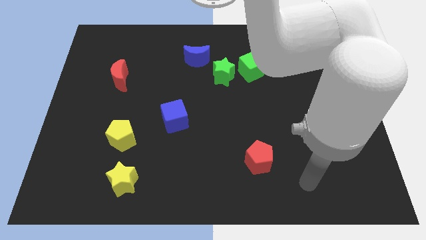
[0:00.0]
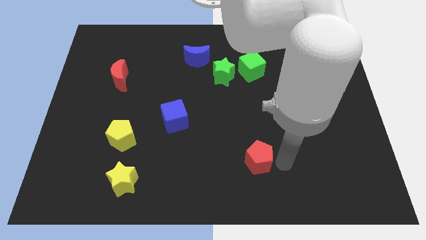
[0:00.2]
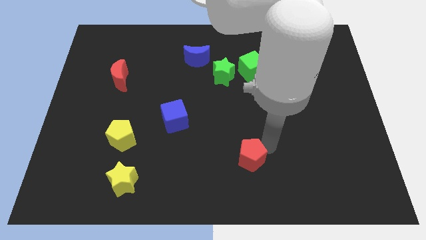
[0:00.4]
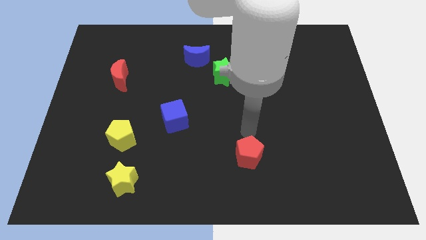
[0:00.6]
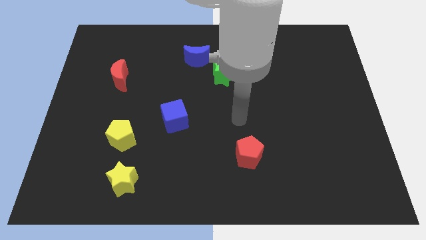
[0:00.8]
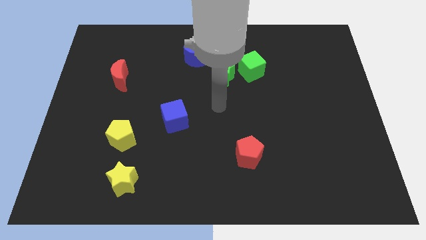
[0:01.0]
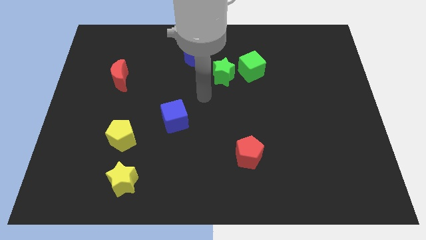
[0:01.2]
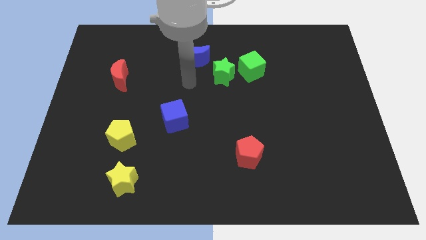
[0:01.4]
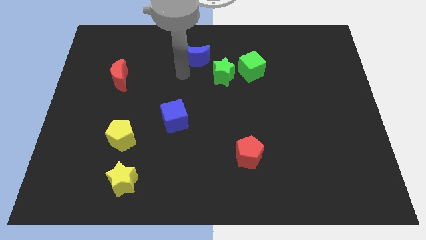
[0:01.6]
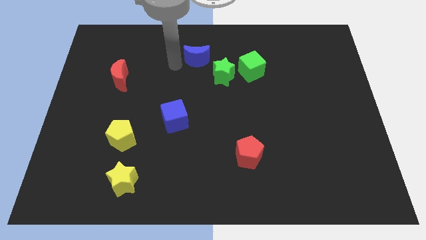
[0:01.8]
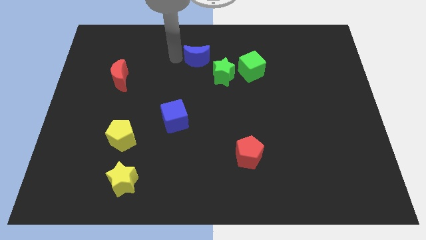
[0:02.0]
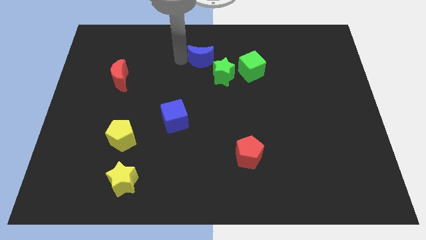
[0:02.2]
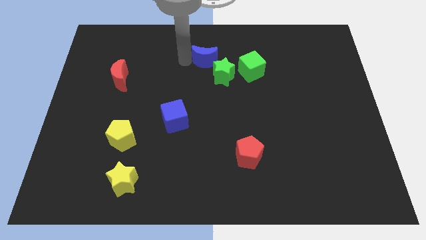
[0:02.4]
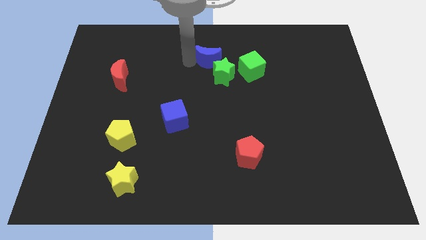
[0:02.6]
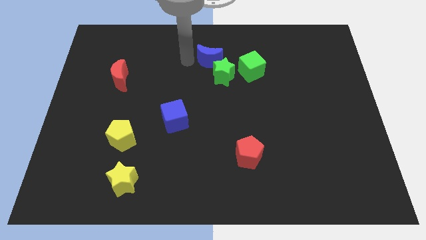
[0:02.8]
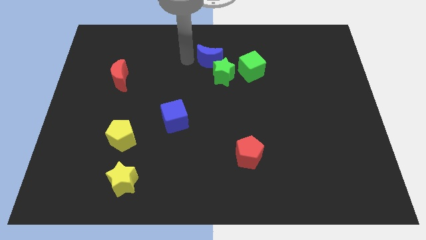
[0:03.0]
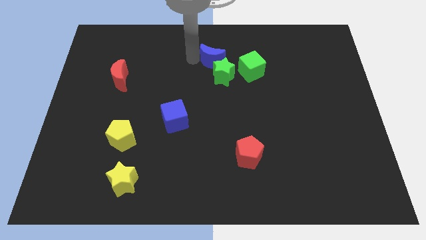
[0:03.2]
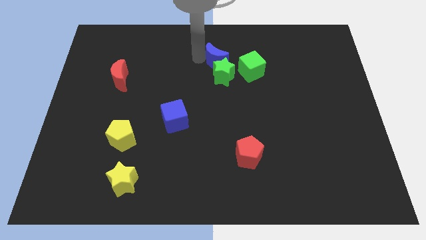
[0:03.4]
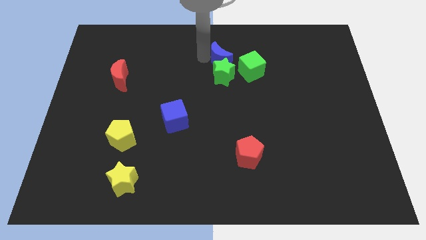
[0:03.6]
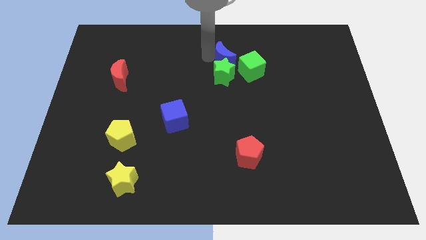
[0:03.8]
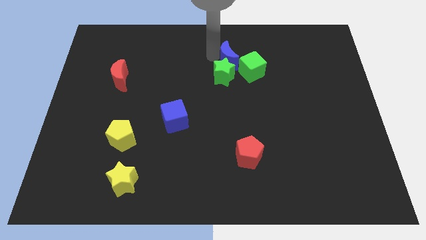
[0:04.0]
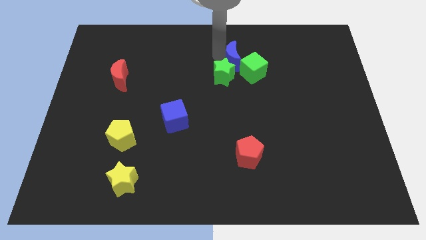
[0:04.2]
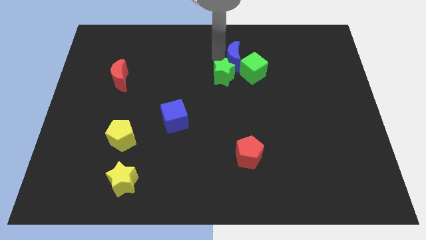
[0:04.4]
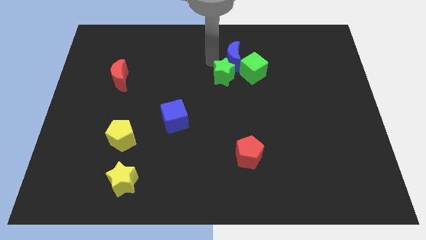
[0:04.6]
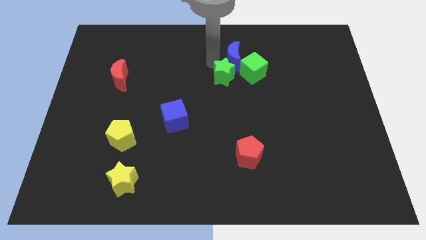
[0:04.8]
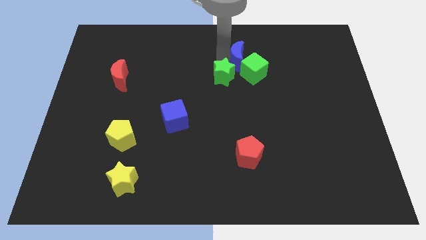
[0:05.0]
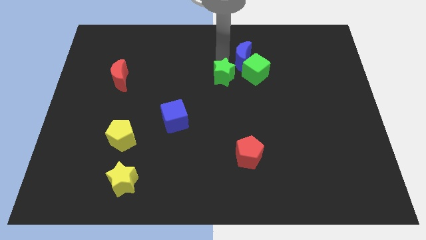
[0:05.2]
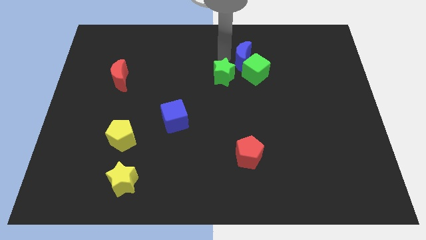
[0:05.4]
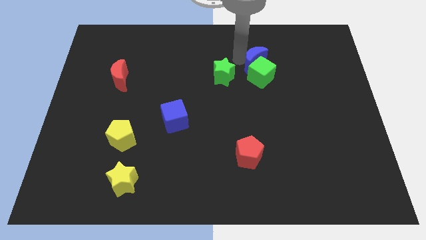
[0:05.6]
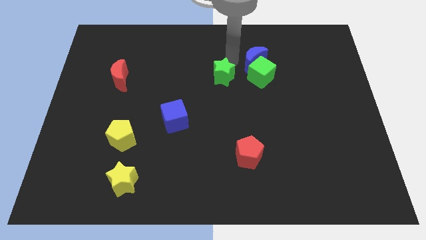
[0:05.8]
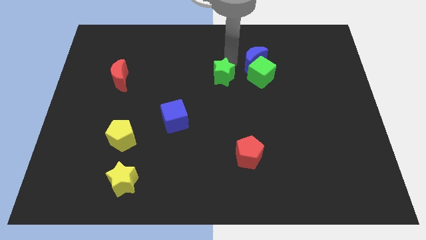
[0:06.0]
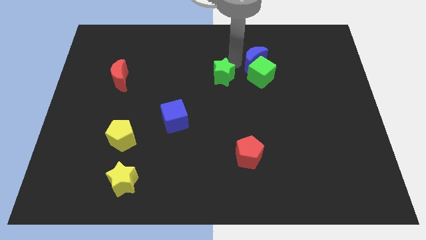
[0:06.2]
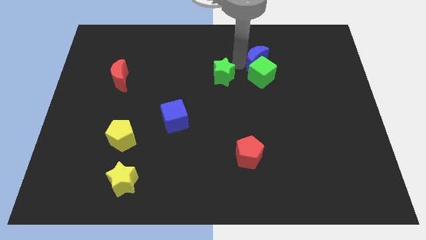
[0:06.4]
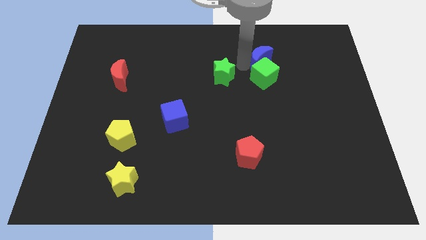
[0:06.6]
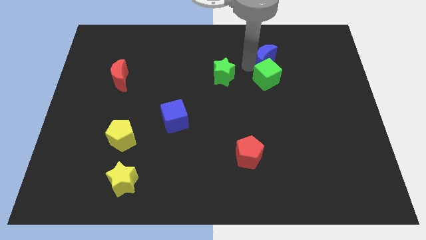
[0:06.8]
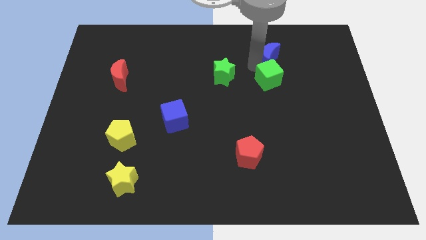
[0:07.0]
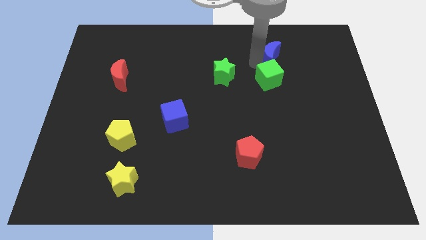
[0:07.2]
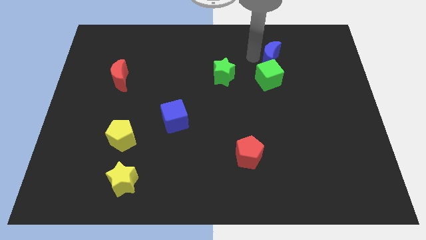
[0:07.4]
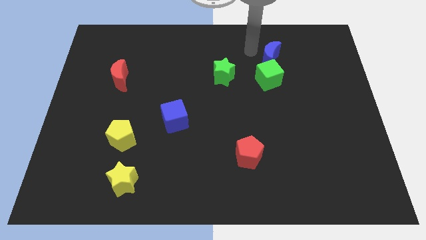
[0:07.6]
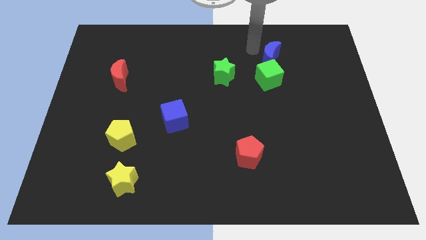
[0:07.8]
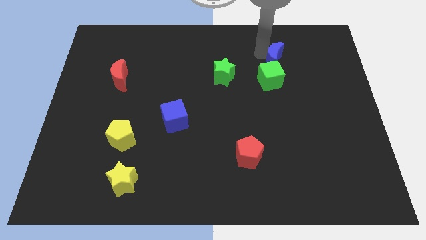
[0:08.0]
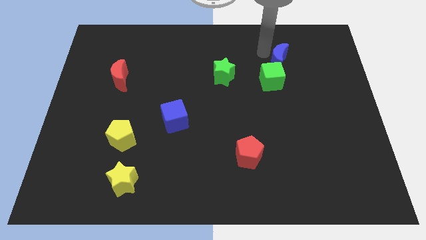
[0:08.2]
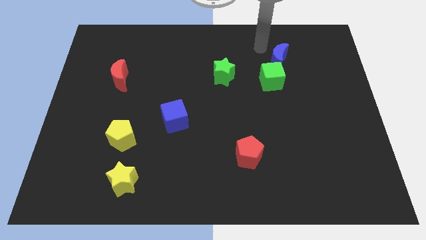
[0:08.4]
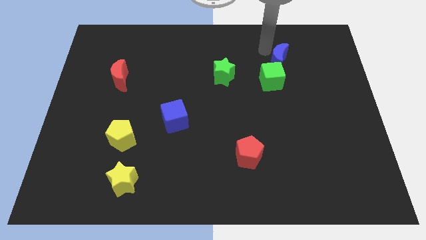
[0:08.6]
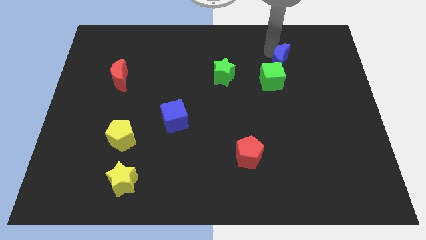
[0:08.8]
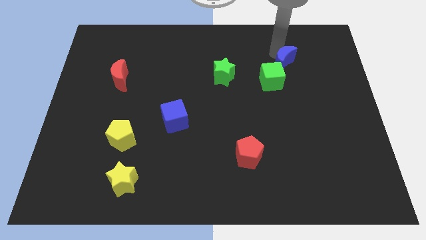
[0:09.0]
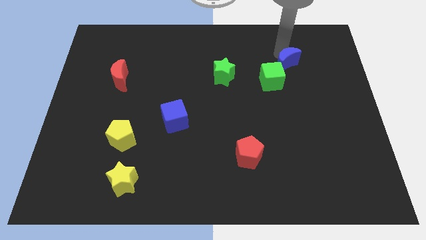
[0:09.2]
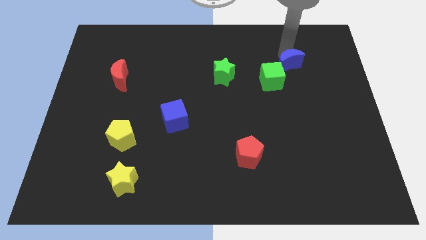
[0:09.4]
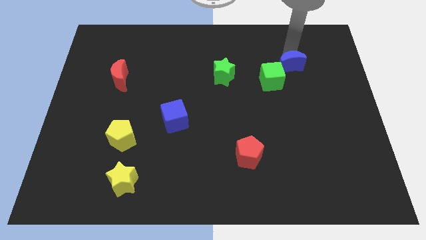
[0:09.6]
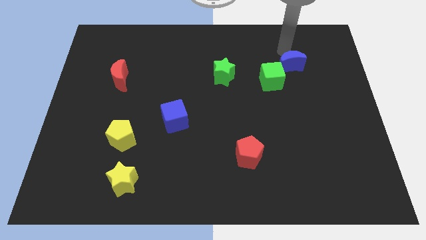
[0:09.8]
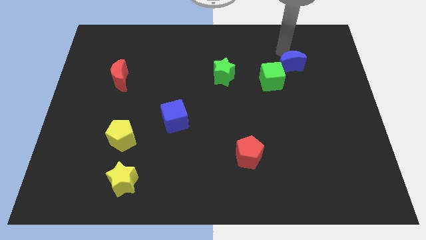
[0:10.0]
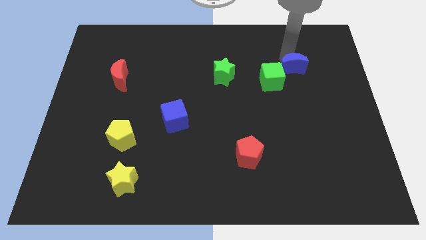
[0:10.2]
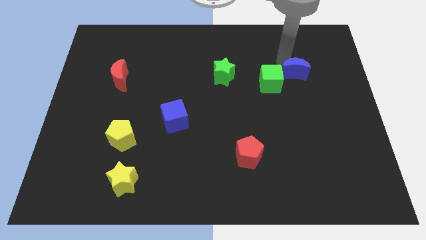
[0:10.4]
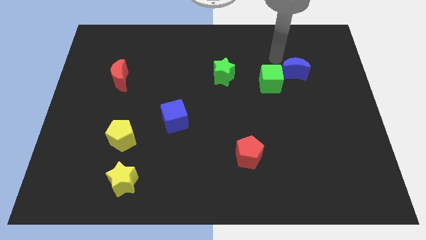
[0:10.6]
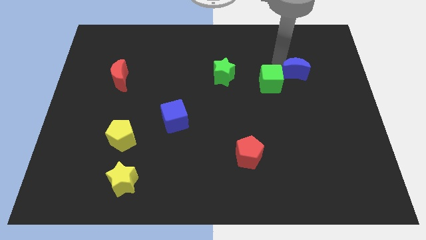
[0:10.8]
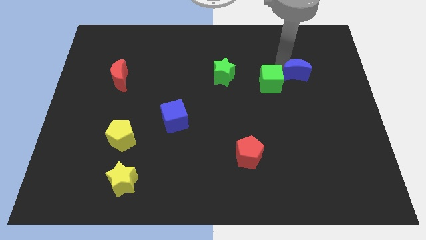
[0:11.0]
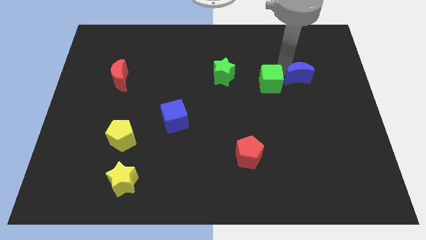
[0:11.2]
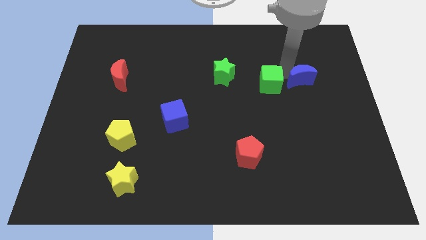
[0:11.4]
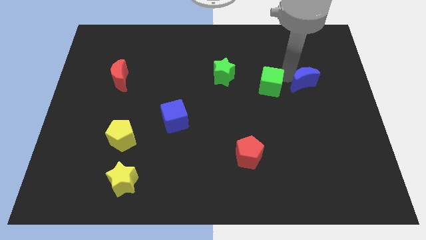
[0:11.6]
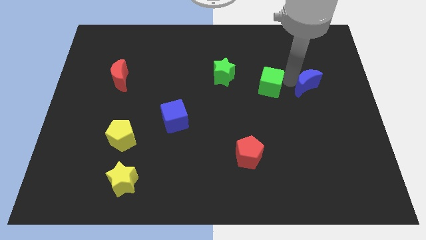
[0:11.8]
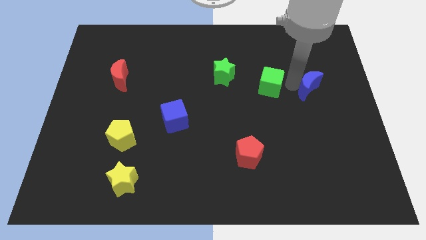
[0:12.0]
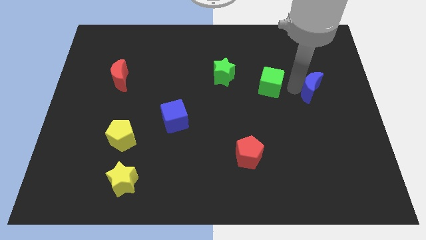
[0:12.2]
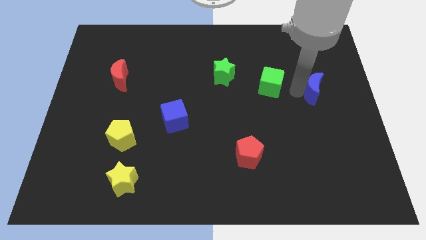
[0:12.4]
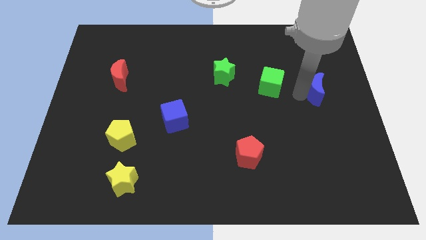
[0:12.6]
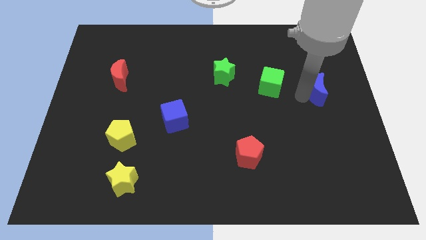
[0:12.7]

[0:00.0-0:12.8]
move the blue moon to the right side of the board
